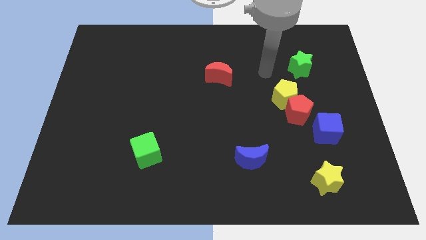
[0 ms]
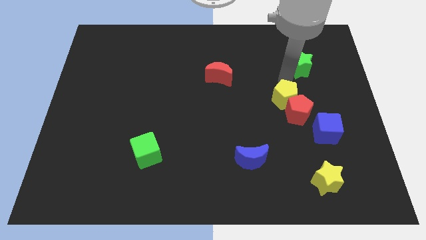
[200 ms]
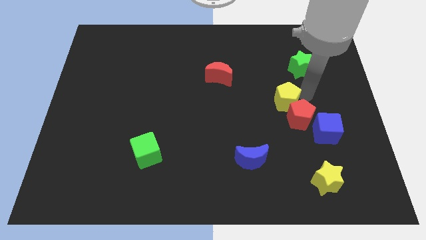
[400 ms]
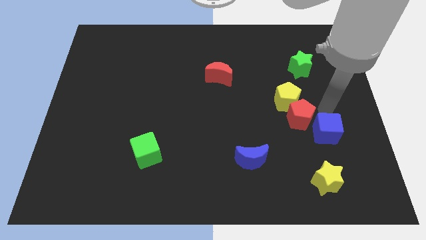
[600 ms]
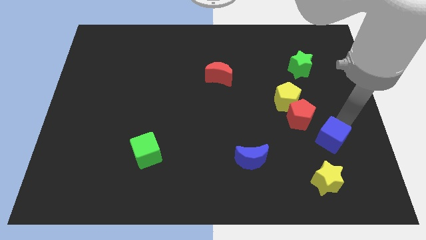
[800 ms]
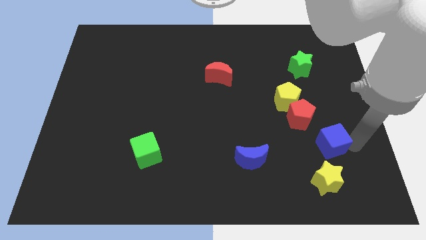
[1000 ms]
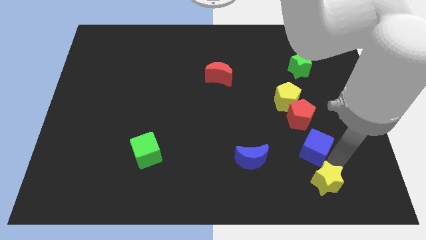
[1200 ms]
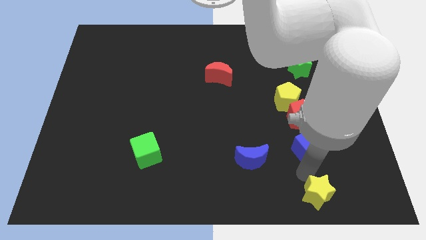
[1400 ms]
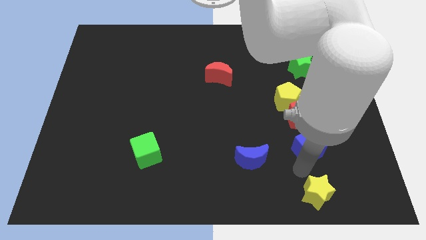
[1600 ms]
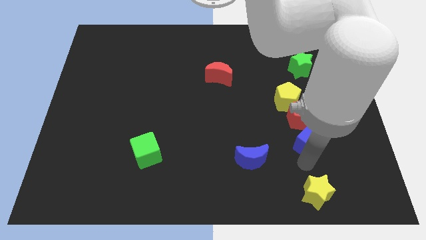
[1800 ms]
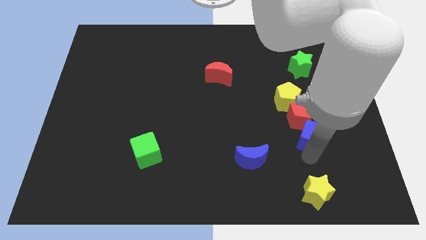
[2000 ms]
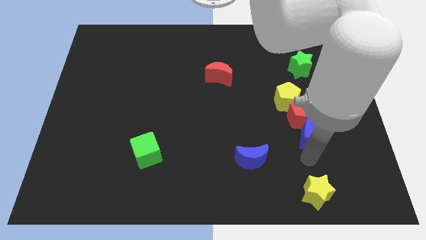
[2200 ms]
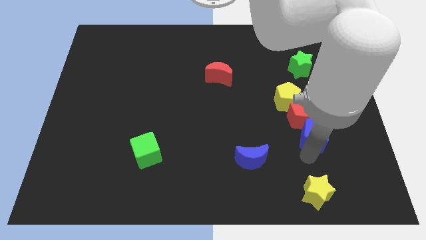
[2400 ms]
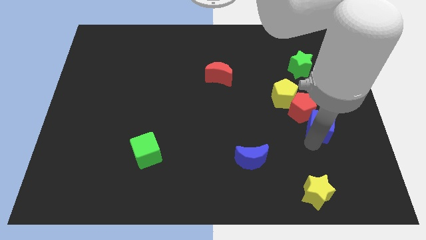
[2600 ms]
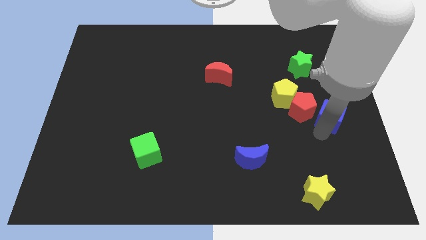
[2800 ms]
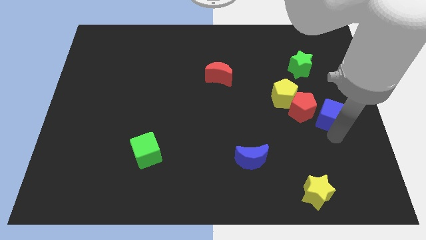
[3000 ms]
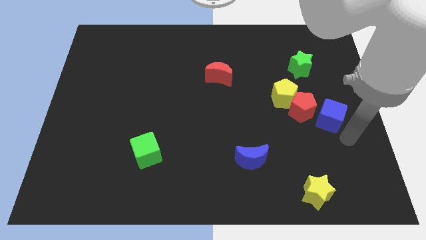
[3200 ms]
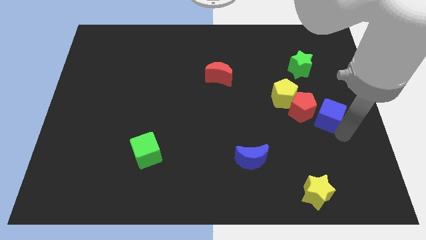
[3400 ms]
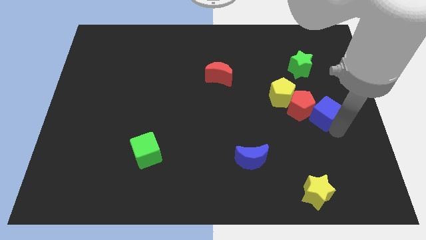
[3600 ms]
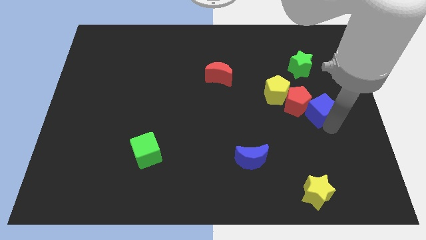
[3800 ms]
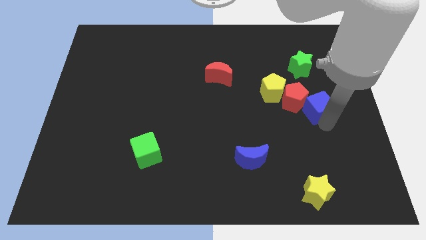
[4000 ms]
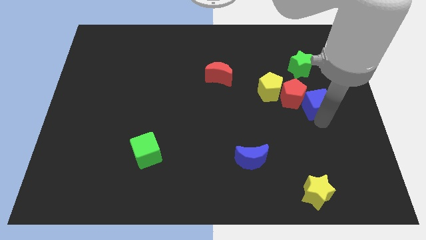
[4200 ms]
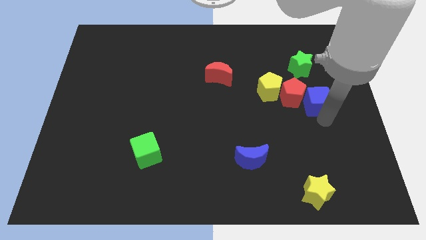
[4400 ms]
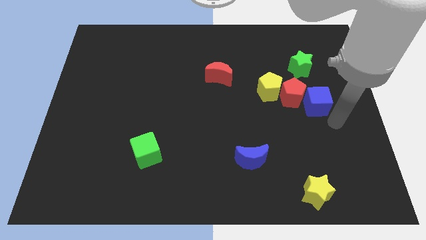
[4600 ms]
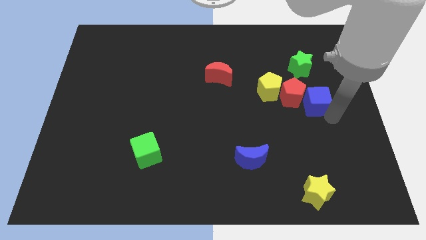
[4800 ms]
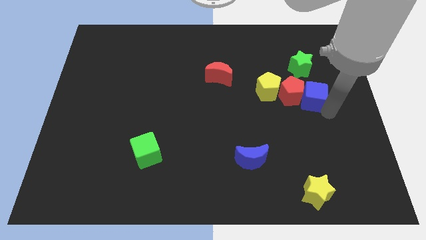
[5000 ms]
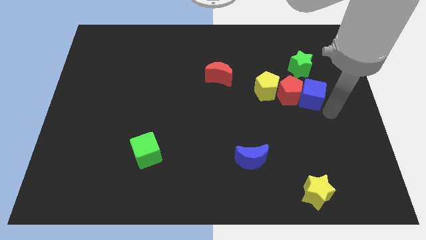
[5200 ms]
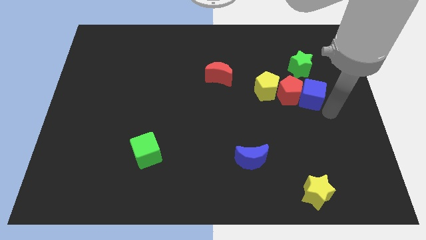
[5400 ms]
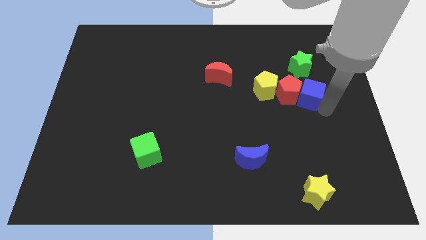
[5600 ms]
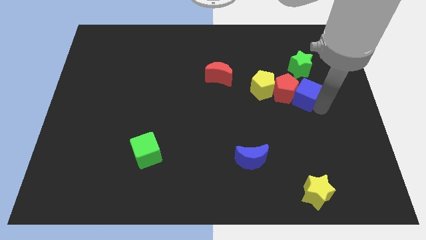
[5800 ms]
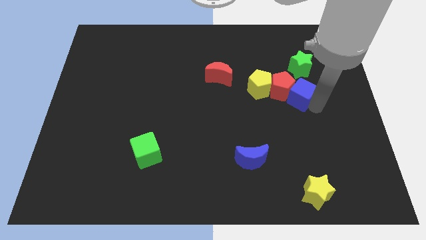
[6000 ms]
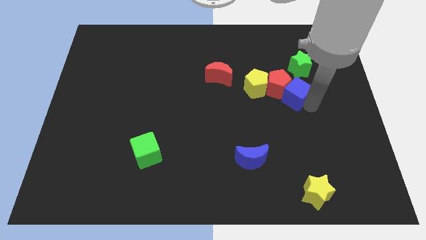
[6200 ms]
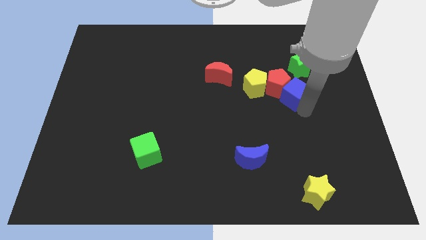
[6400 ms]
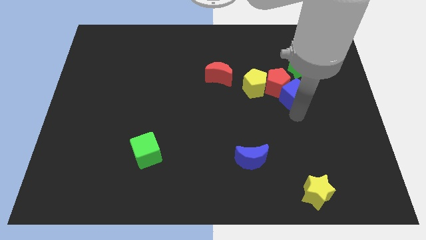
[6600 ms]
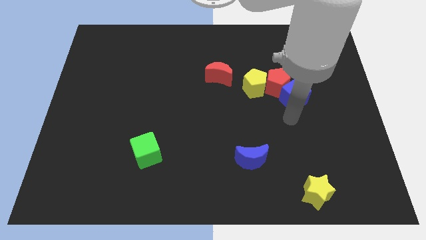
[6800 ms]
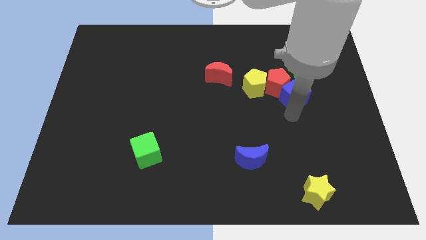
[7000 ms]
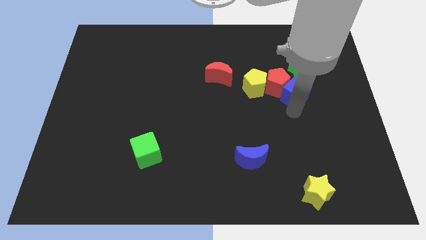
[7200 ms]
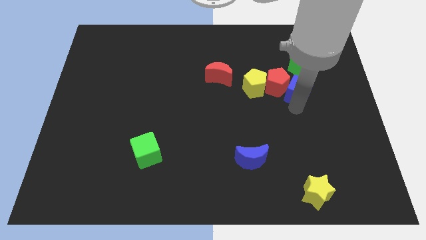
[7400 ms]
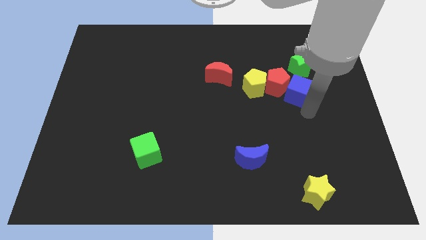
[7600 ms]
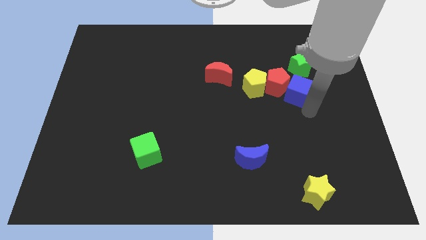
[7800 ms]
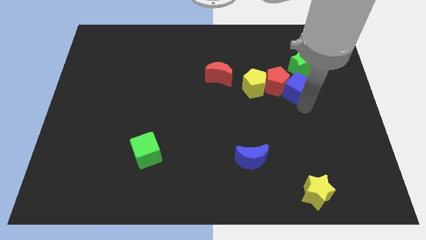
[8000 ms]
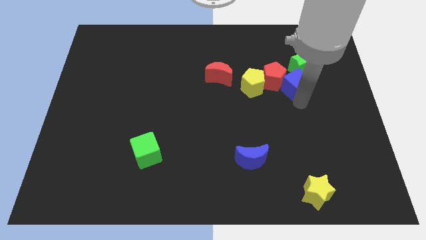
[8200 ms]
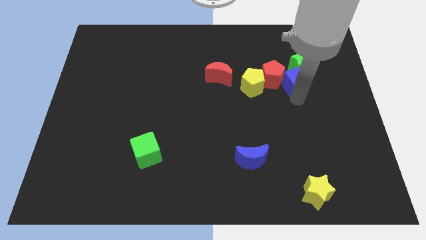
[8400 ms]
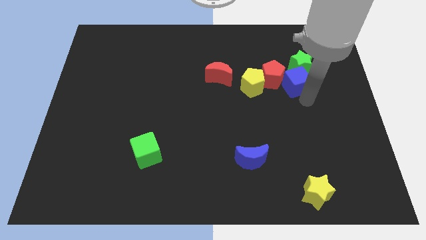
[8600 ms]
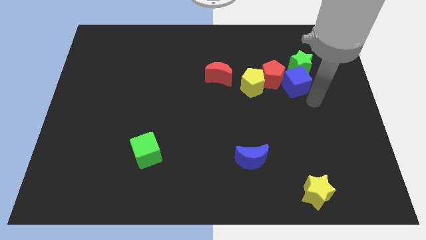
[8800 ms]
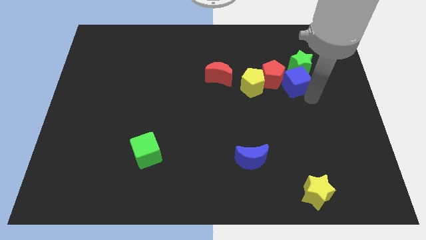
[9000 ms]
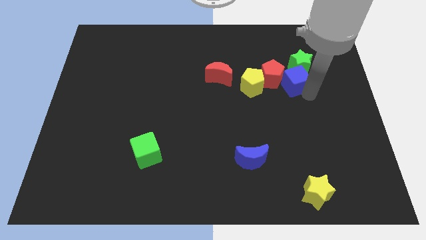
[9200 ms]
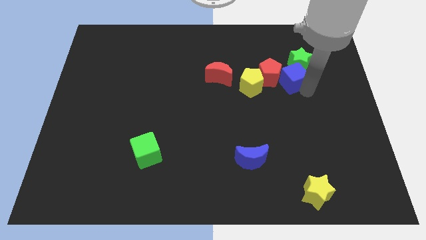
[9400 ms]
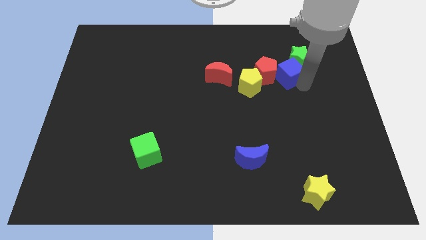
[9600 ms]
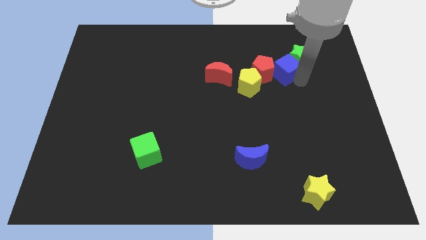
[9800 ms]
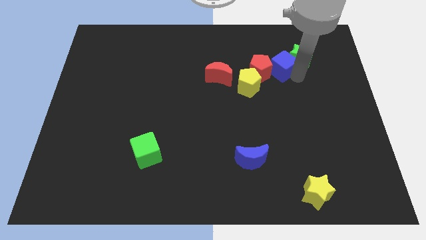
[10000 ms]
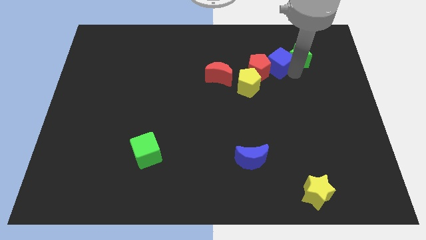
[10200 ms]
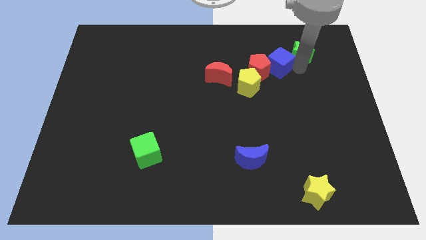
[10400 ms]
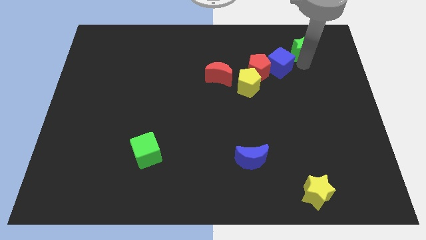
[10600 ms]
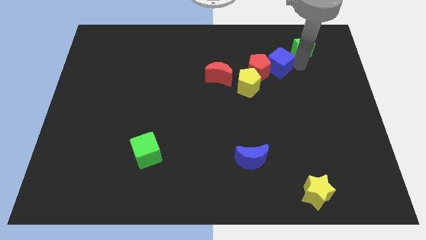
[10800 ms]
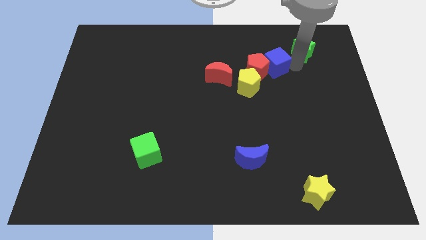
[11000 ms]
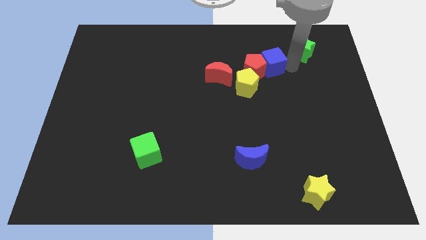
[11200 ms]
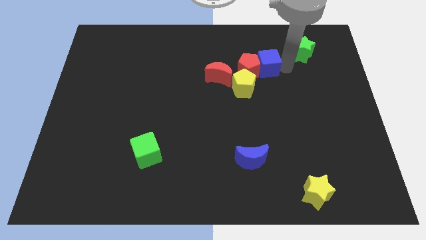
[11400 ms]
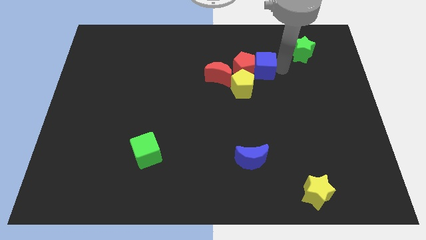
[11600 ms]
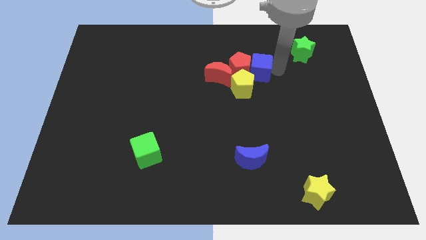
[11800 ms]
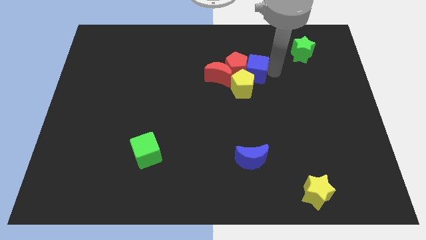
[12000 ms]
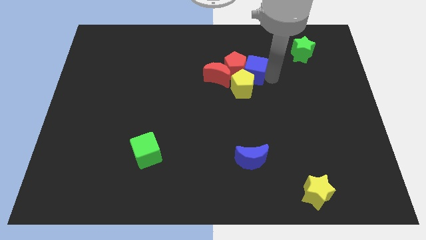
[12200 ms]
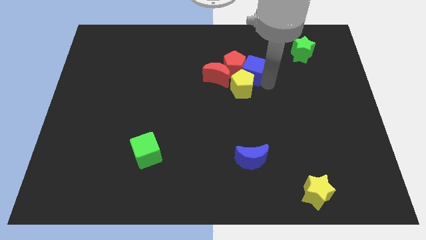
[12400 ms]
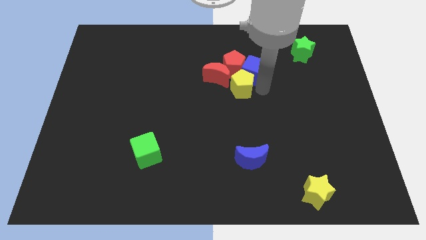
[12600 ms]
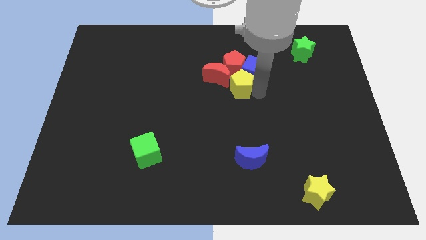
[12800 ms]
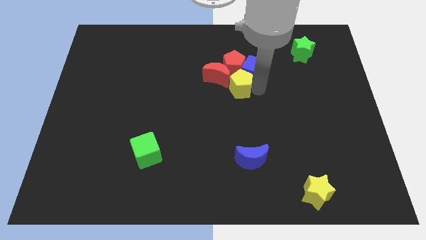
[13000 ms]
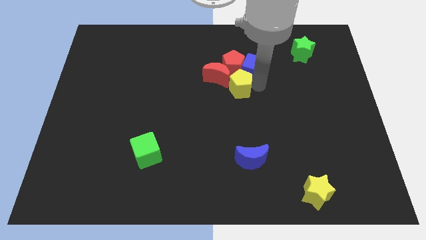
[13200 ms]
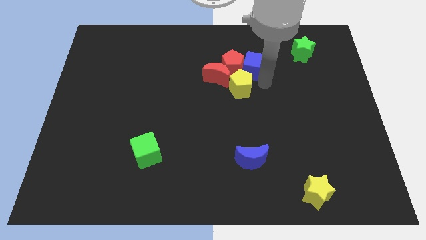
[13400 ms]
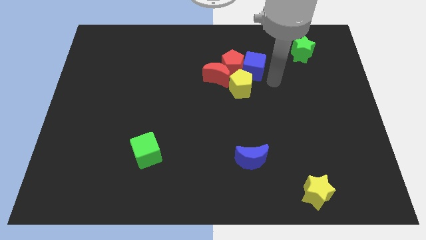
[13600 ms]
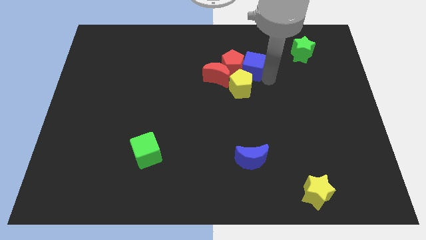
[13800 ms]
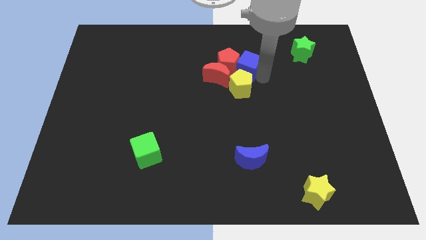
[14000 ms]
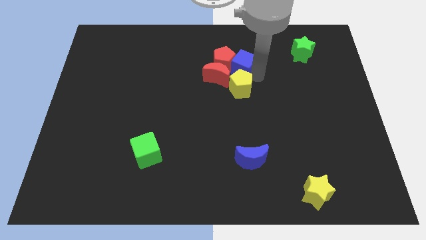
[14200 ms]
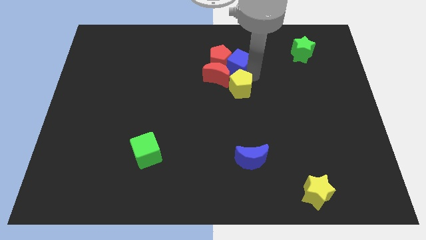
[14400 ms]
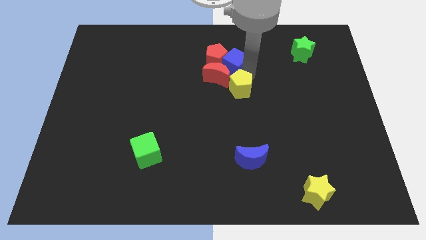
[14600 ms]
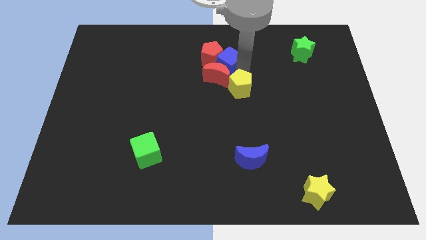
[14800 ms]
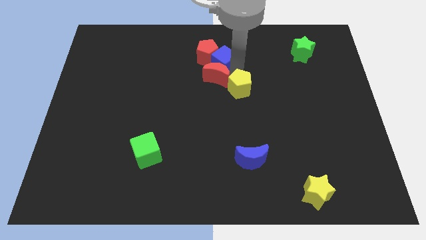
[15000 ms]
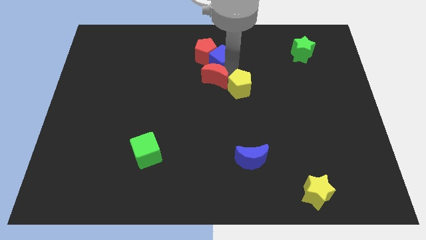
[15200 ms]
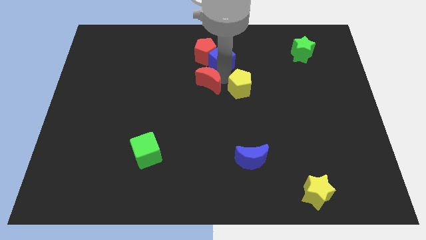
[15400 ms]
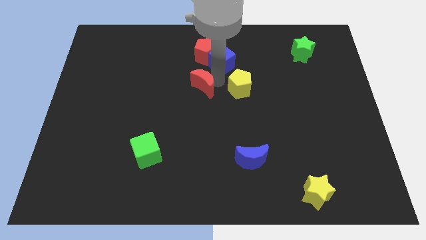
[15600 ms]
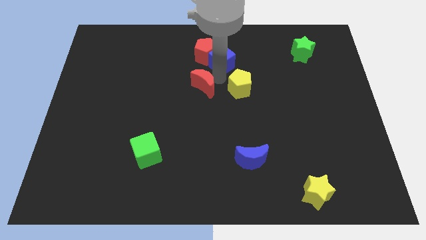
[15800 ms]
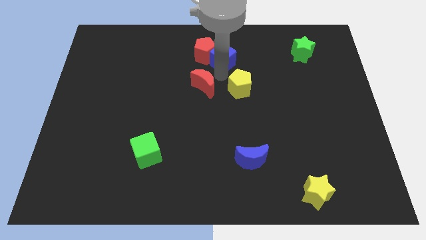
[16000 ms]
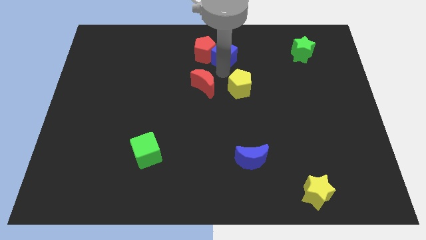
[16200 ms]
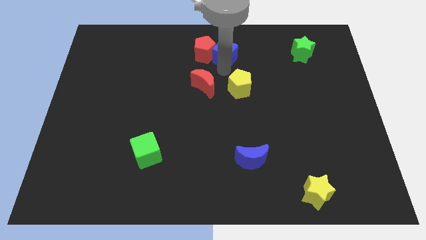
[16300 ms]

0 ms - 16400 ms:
slide the blue cube to the top
